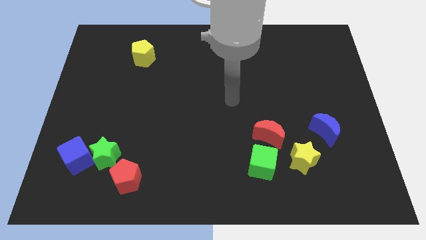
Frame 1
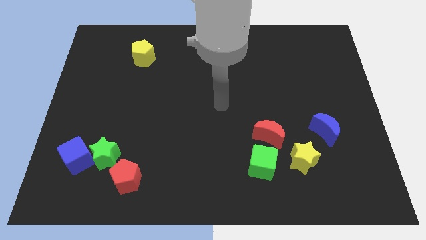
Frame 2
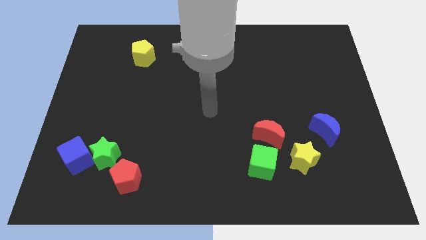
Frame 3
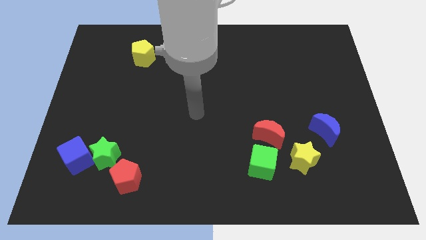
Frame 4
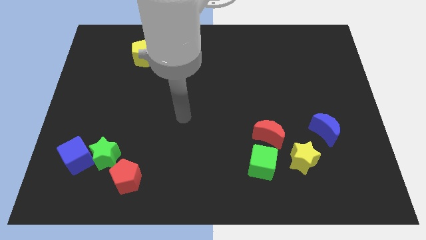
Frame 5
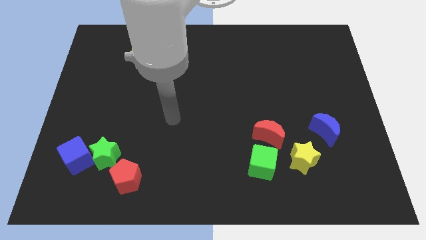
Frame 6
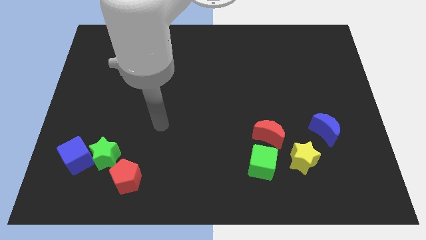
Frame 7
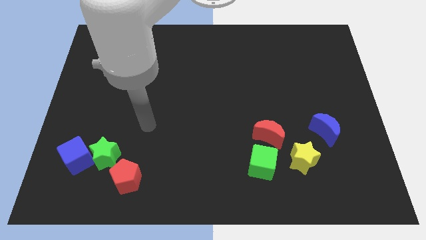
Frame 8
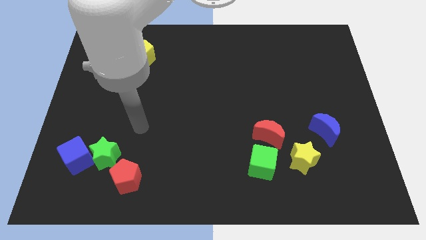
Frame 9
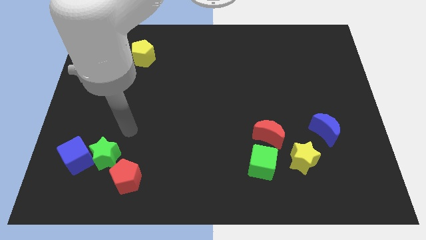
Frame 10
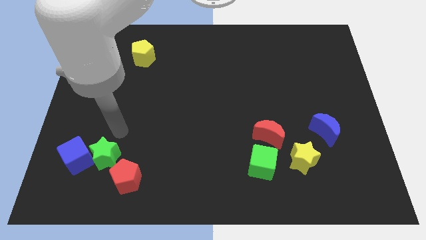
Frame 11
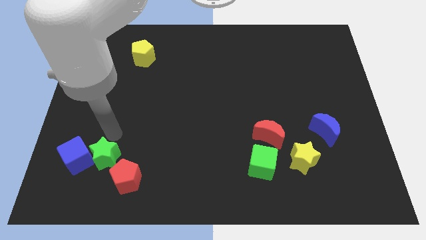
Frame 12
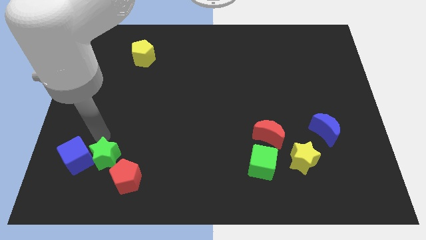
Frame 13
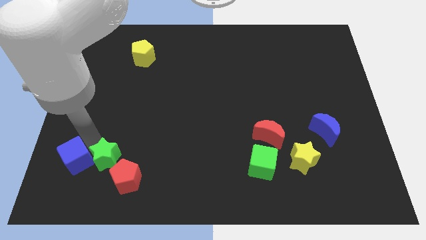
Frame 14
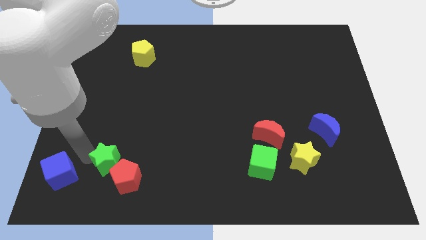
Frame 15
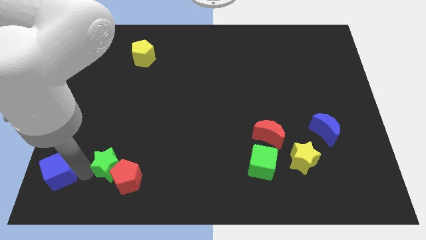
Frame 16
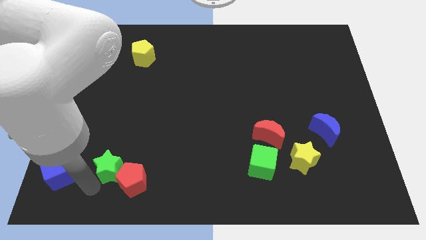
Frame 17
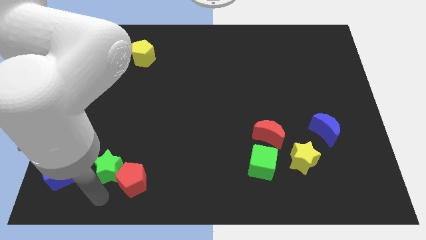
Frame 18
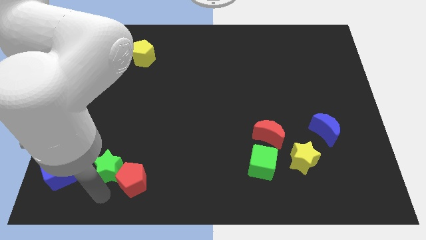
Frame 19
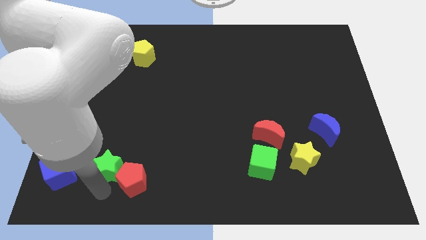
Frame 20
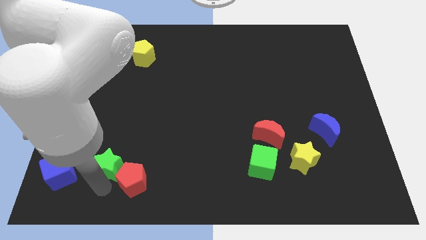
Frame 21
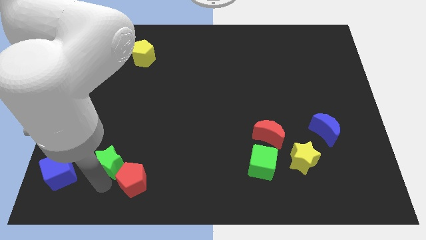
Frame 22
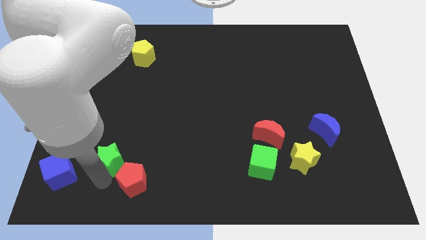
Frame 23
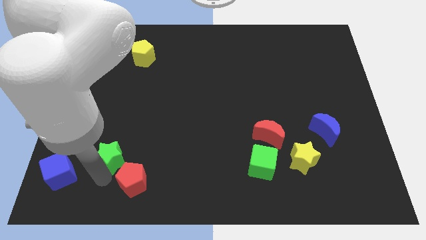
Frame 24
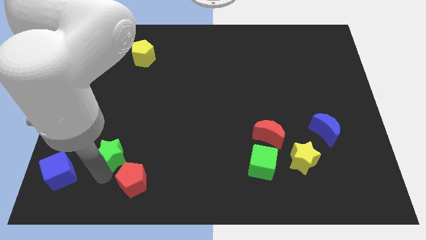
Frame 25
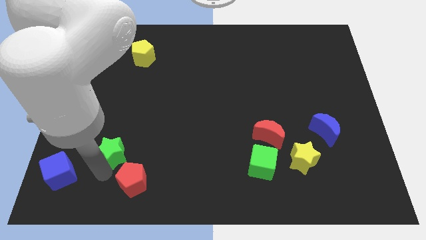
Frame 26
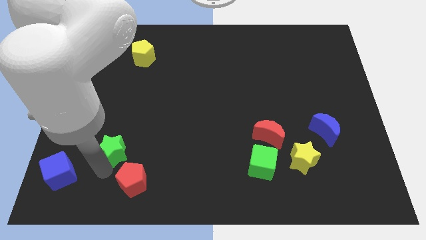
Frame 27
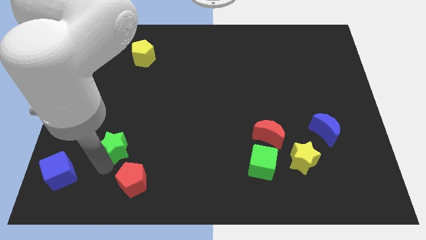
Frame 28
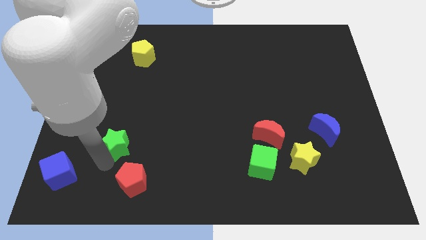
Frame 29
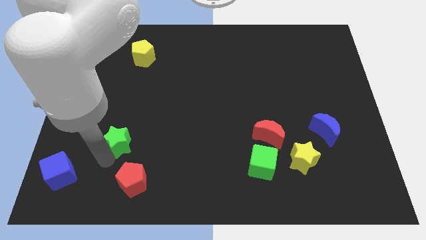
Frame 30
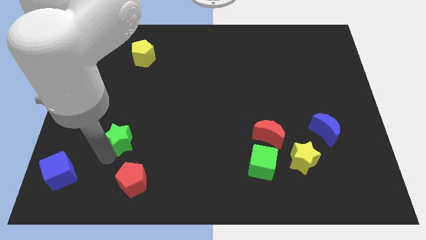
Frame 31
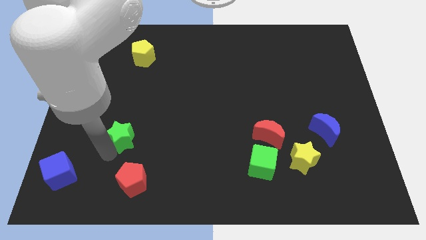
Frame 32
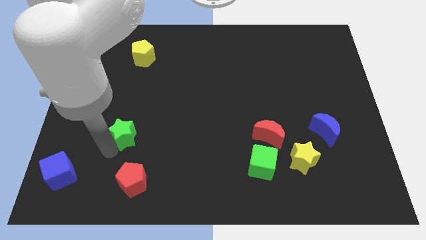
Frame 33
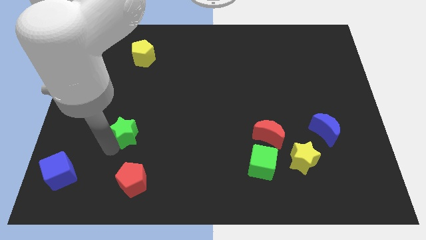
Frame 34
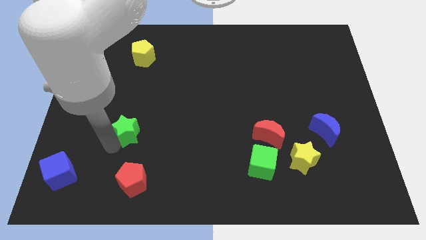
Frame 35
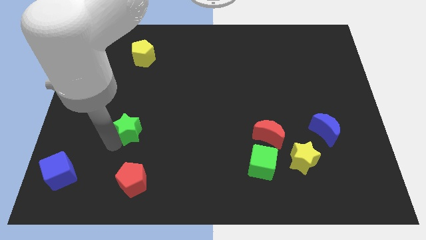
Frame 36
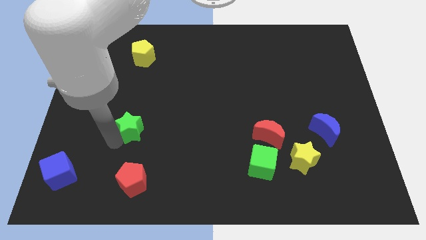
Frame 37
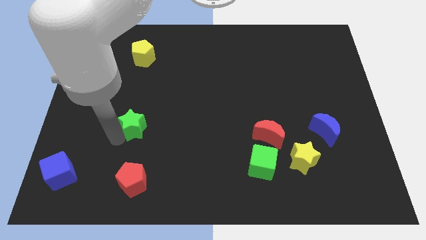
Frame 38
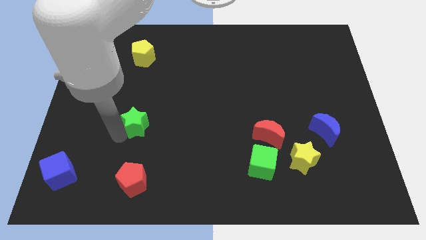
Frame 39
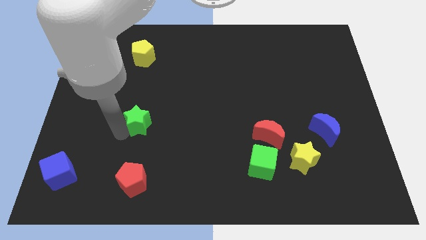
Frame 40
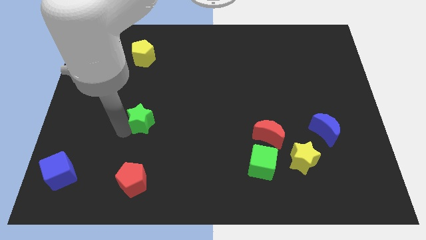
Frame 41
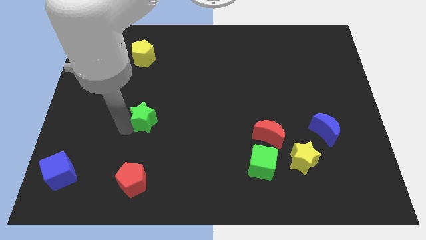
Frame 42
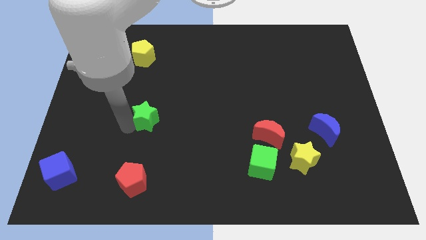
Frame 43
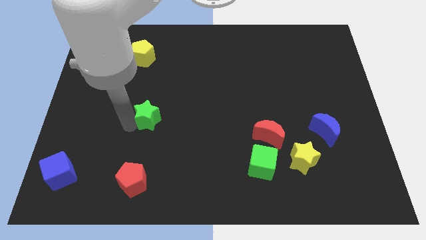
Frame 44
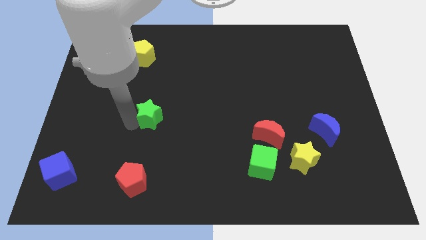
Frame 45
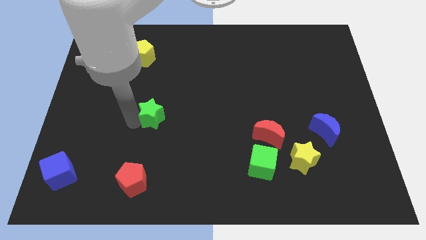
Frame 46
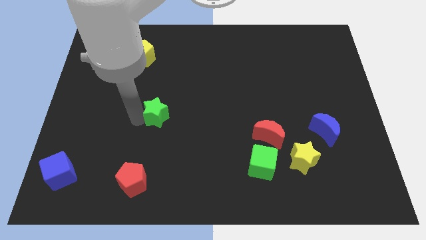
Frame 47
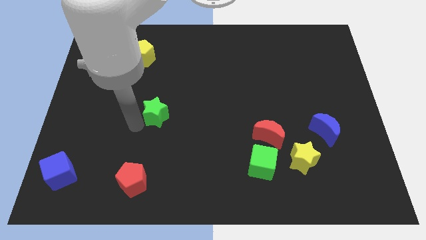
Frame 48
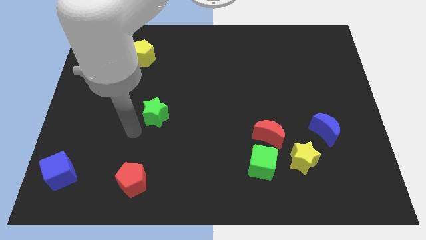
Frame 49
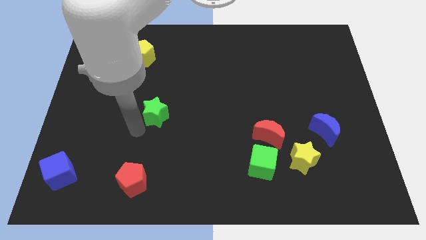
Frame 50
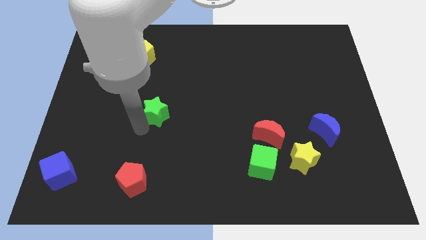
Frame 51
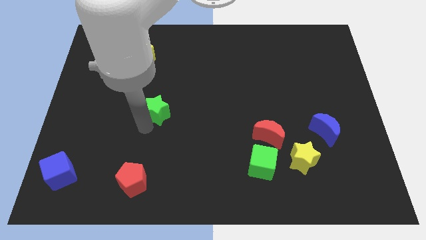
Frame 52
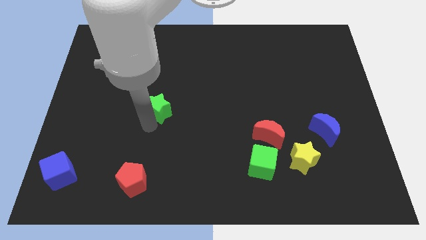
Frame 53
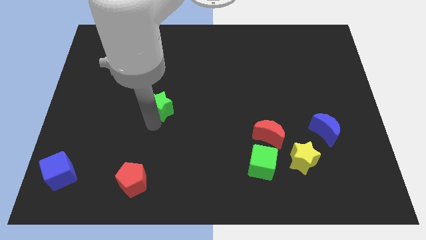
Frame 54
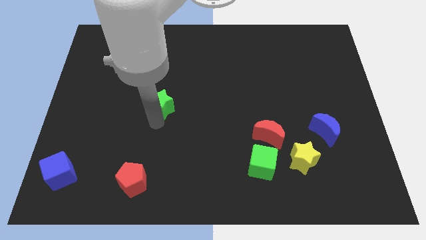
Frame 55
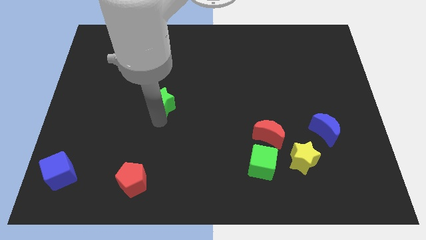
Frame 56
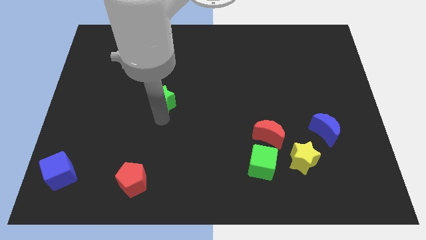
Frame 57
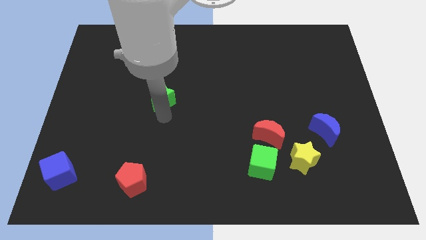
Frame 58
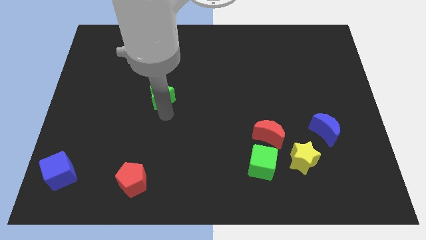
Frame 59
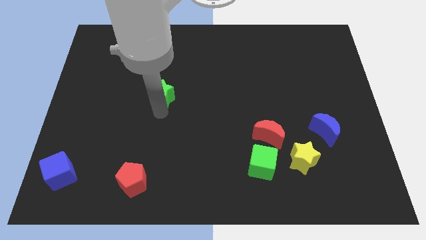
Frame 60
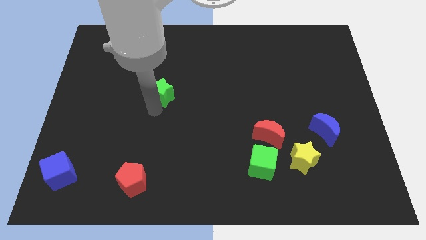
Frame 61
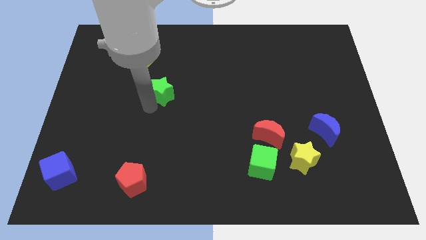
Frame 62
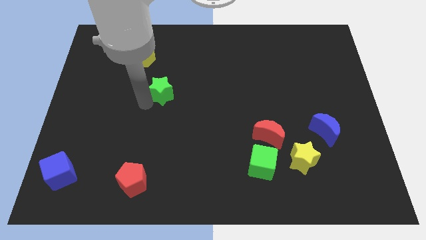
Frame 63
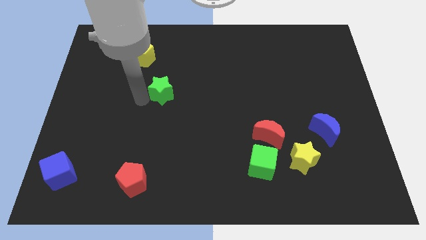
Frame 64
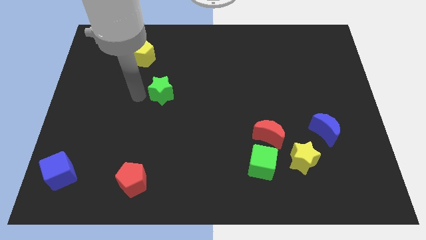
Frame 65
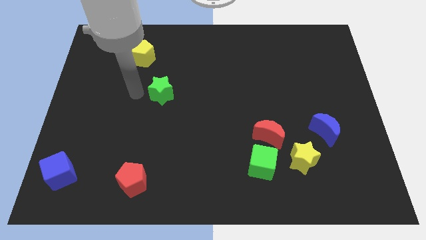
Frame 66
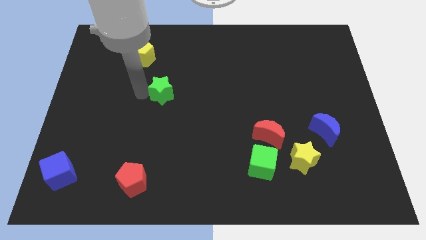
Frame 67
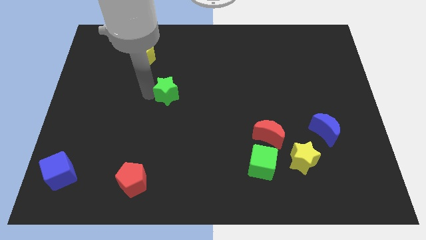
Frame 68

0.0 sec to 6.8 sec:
push the green star upwards and to the right

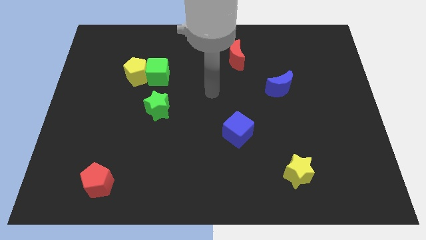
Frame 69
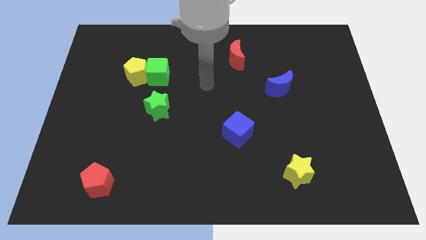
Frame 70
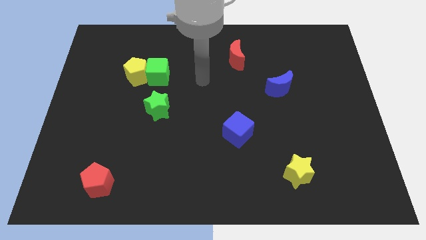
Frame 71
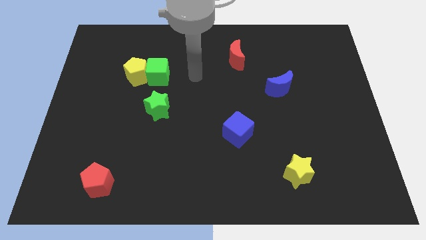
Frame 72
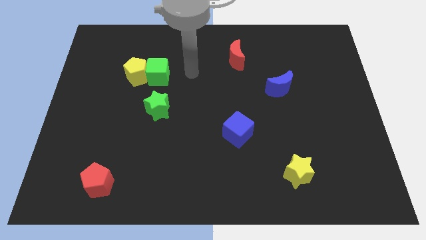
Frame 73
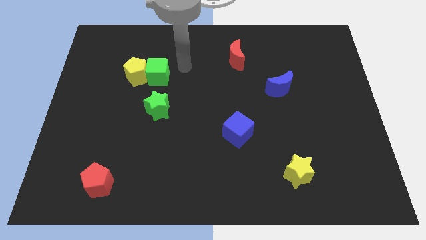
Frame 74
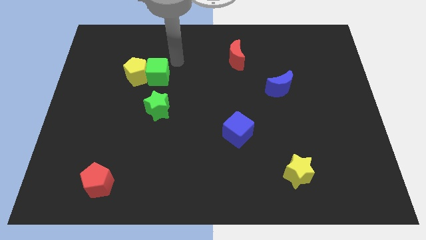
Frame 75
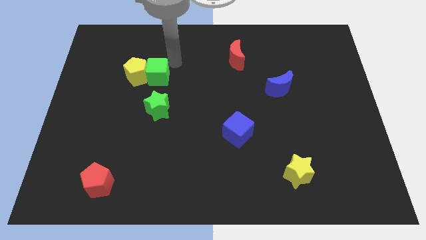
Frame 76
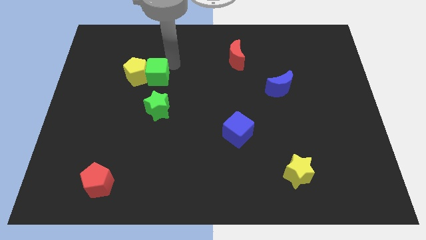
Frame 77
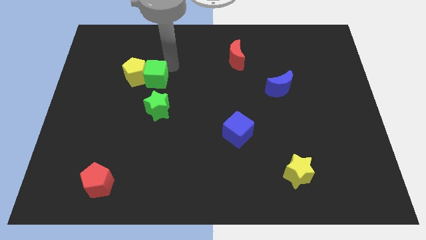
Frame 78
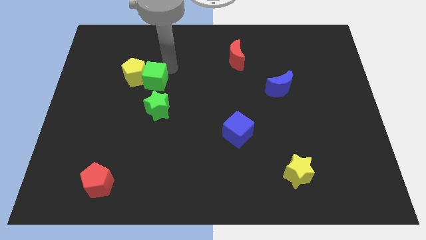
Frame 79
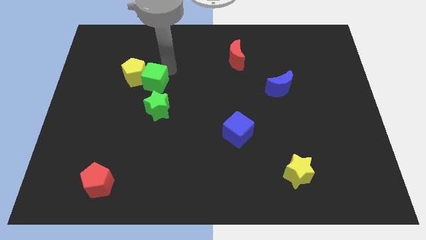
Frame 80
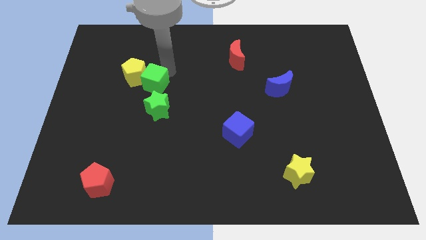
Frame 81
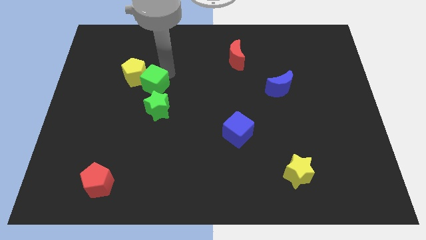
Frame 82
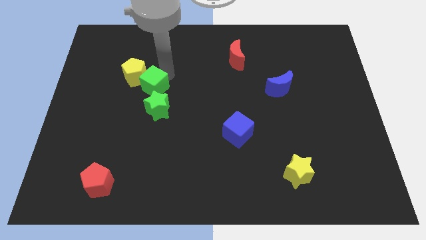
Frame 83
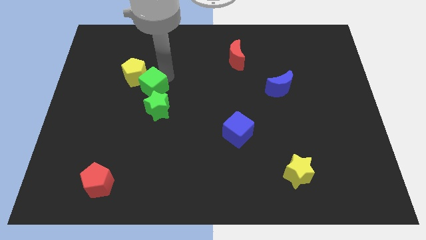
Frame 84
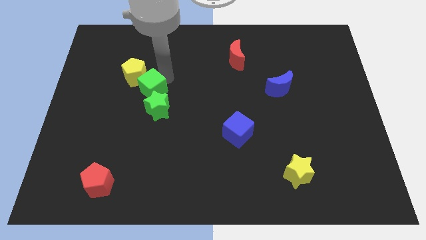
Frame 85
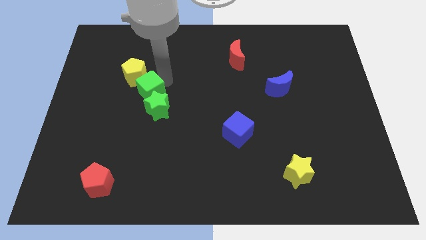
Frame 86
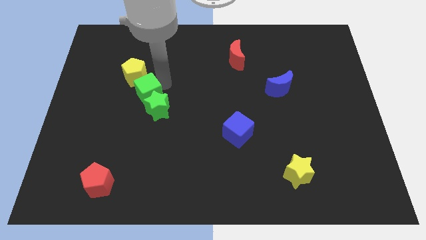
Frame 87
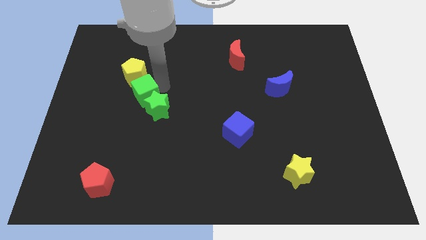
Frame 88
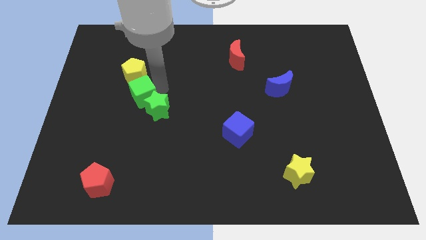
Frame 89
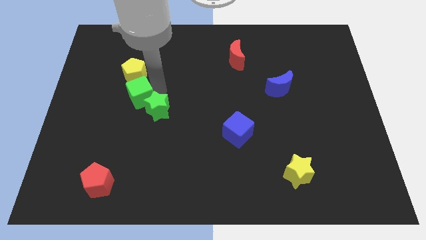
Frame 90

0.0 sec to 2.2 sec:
slightly push the green cube downwards and to the left
